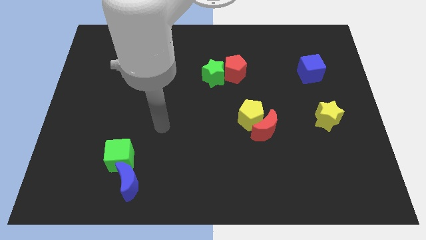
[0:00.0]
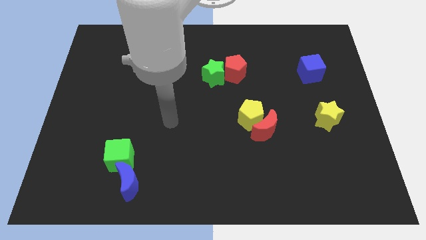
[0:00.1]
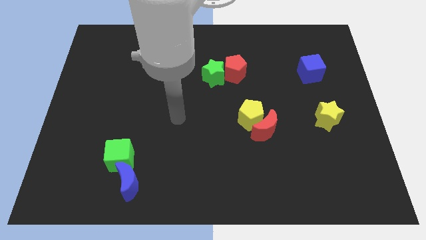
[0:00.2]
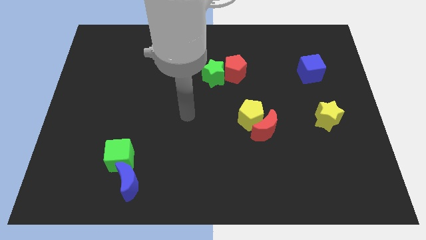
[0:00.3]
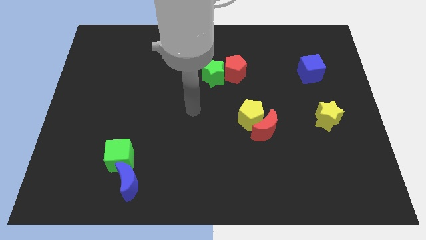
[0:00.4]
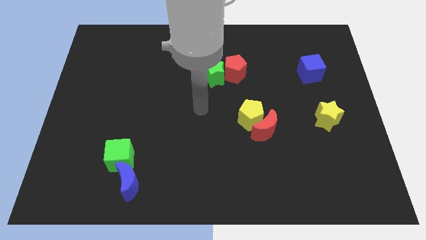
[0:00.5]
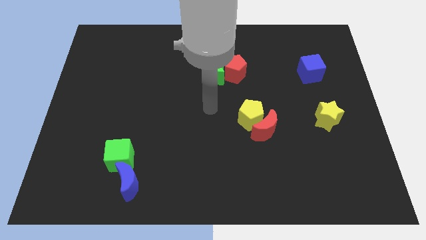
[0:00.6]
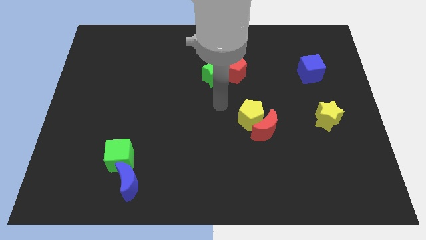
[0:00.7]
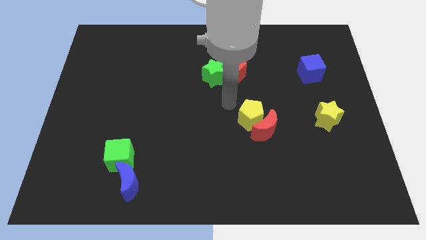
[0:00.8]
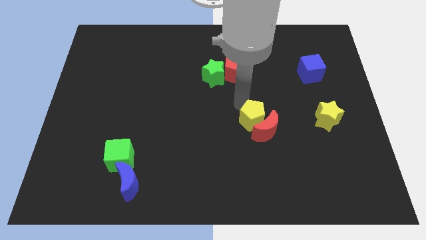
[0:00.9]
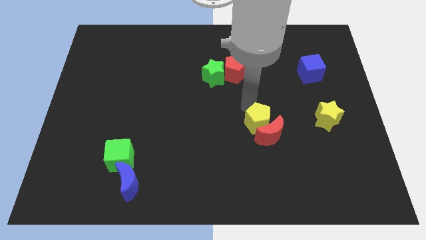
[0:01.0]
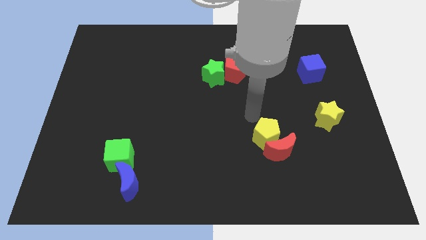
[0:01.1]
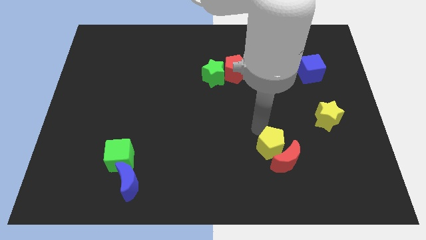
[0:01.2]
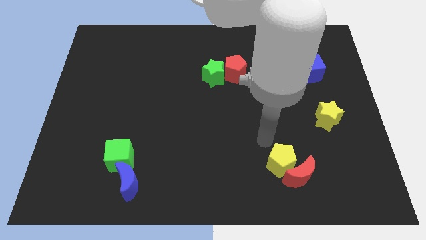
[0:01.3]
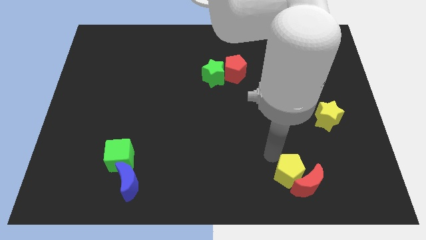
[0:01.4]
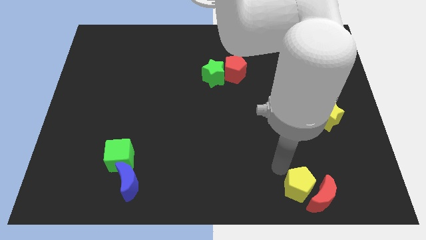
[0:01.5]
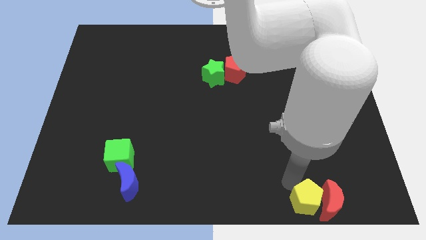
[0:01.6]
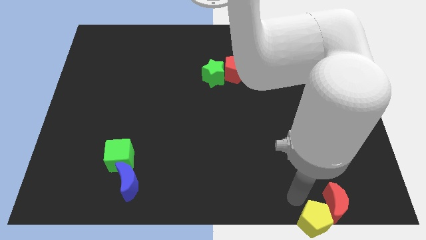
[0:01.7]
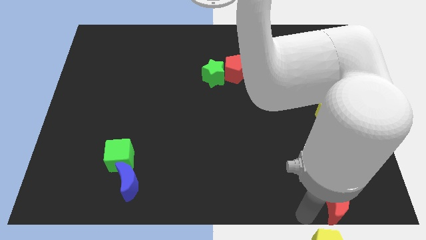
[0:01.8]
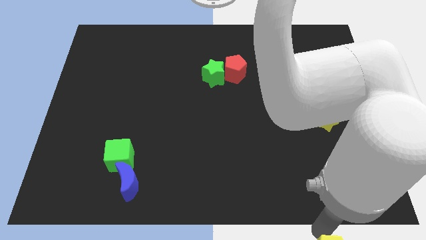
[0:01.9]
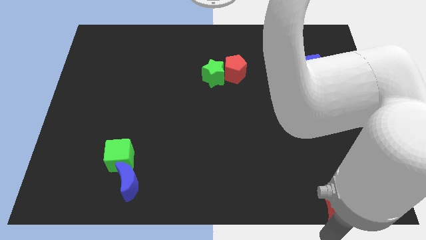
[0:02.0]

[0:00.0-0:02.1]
pull the red moon apart from the yellow pentagon

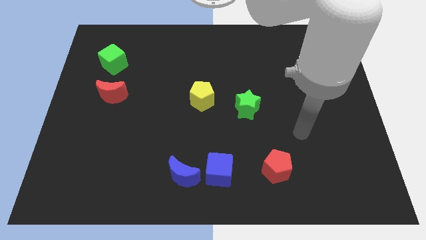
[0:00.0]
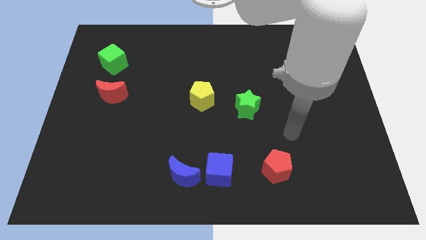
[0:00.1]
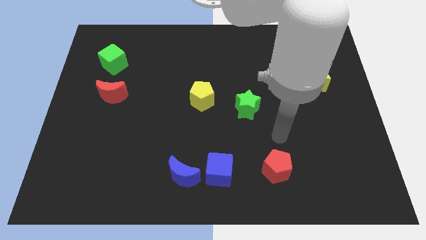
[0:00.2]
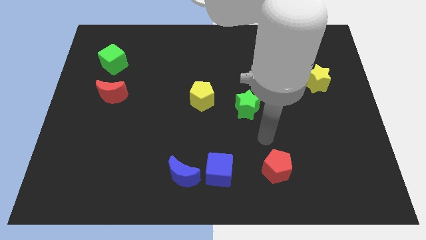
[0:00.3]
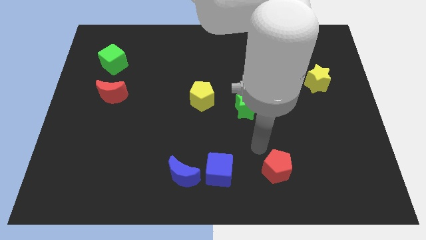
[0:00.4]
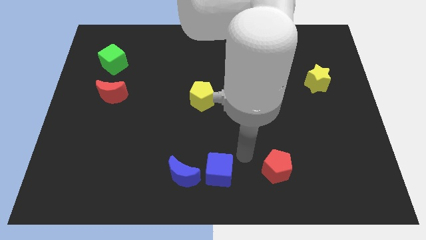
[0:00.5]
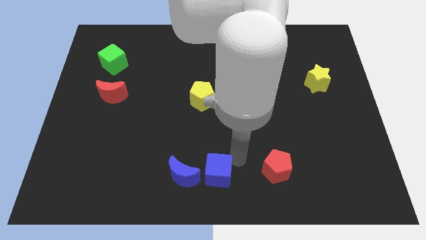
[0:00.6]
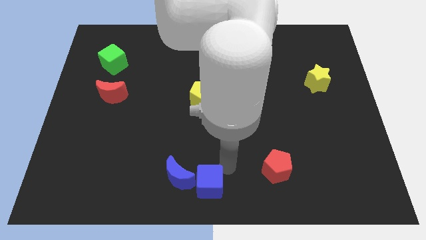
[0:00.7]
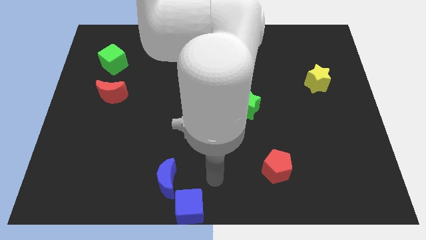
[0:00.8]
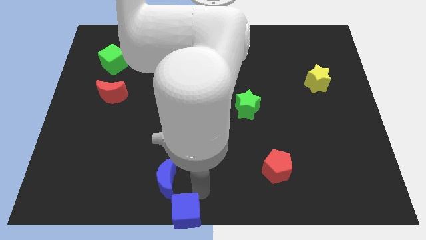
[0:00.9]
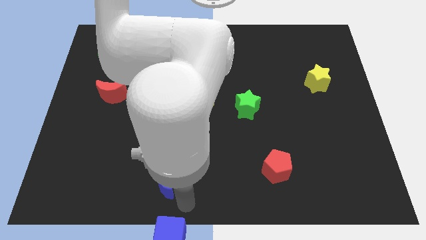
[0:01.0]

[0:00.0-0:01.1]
separate the blue moon from the blue cube

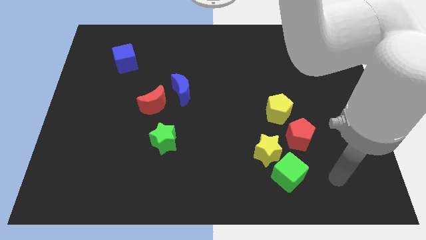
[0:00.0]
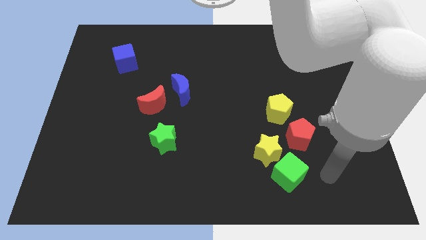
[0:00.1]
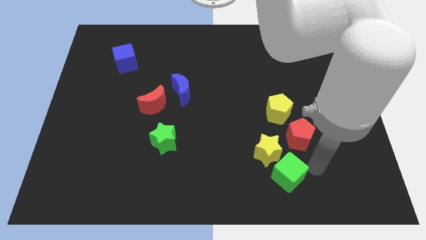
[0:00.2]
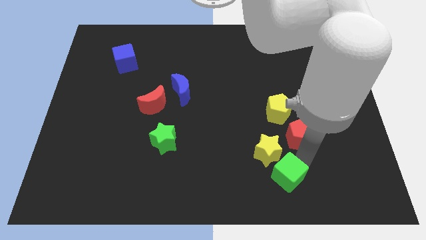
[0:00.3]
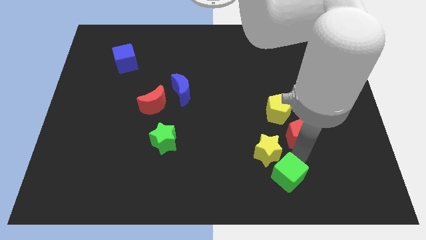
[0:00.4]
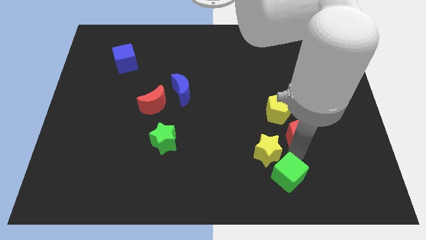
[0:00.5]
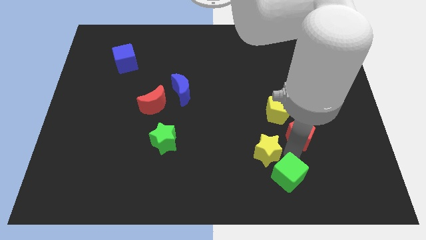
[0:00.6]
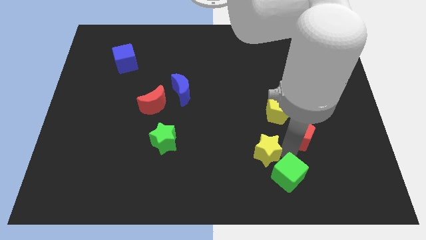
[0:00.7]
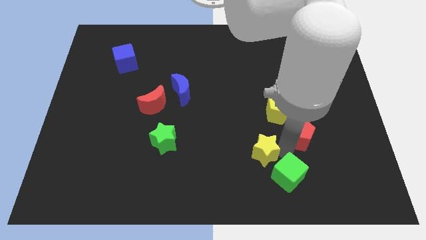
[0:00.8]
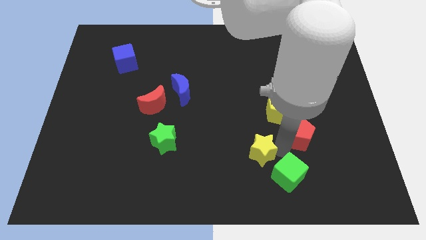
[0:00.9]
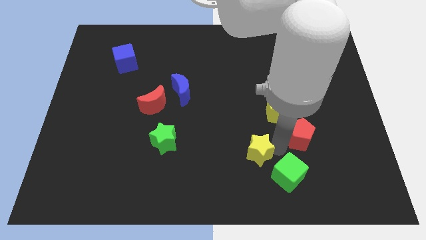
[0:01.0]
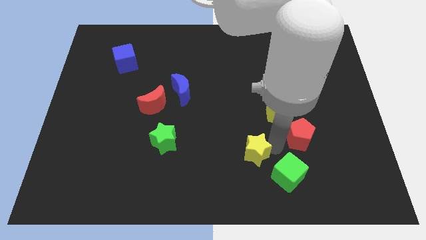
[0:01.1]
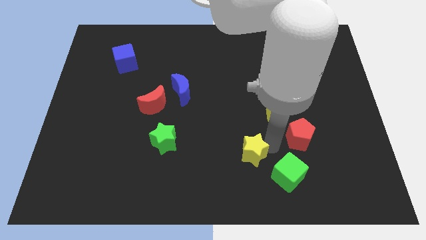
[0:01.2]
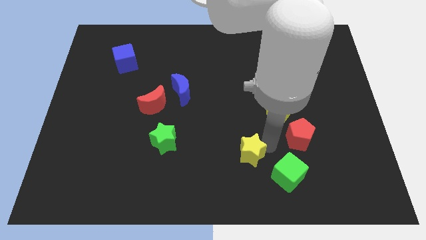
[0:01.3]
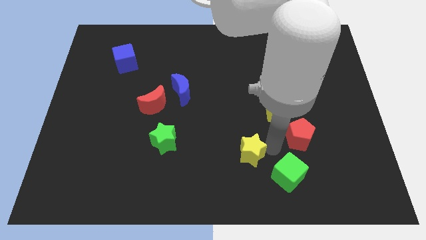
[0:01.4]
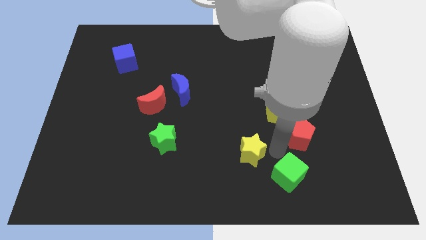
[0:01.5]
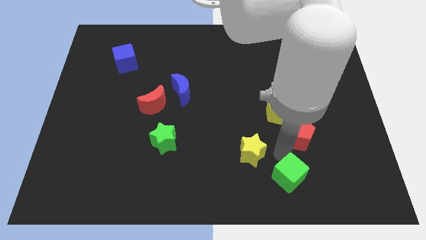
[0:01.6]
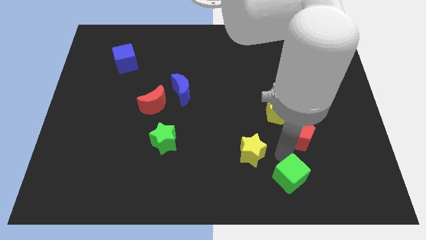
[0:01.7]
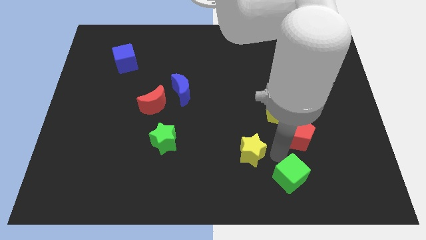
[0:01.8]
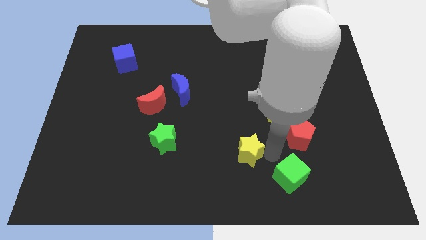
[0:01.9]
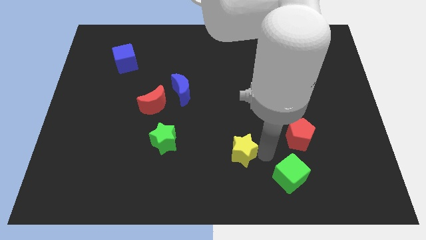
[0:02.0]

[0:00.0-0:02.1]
move the yellow star away from the green cube and red pentagon

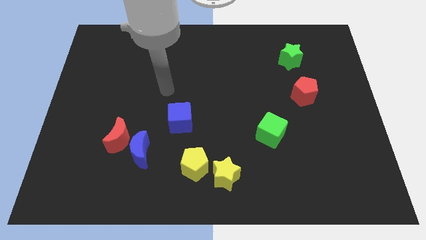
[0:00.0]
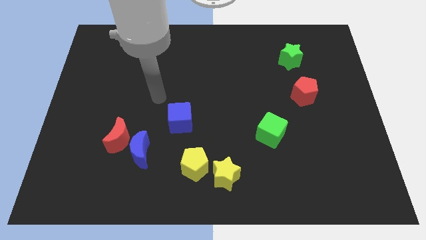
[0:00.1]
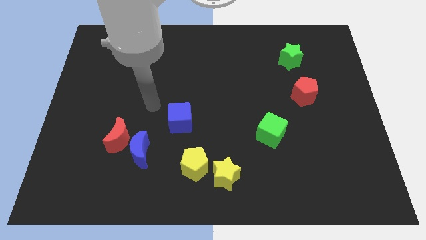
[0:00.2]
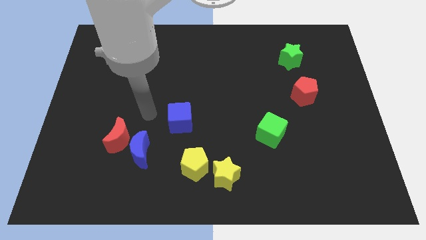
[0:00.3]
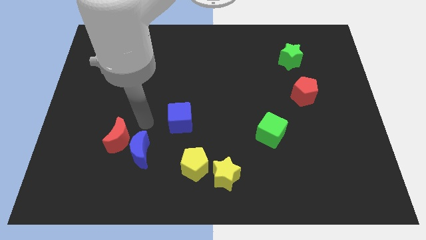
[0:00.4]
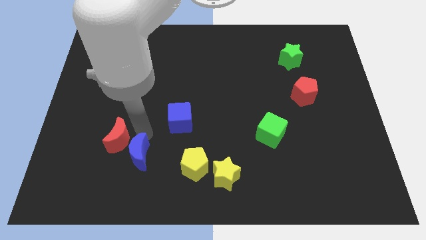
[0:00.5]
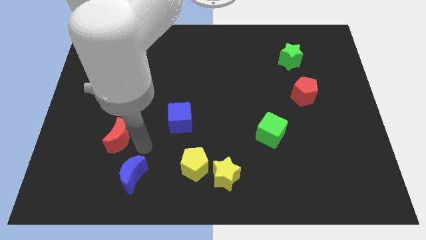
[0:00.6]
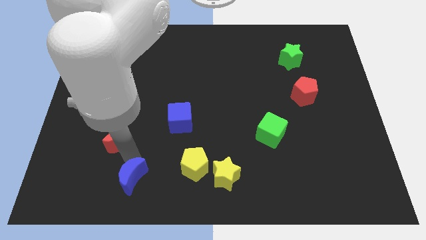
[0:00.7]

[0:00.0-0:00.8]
move the red moon away from the blue moon

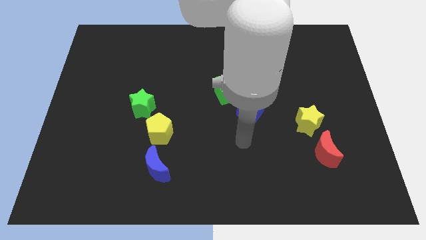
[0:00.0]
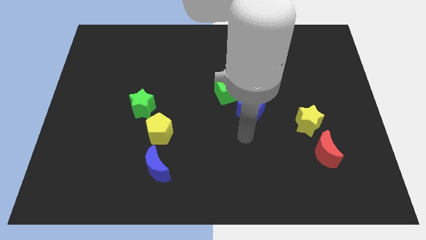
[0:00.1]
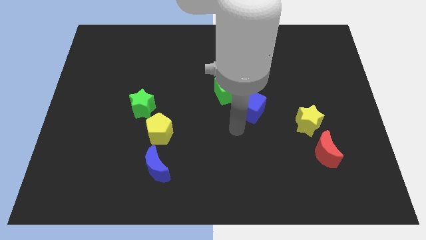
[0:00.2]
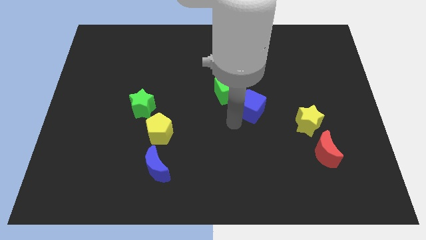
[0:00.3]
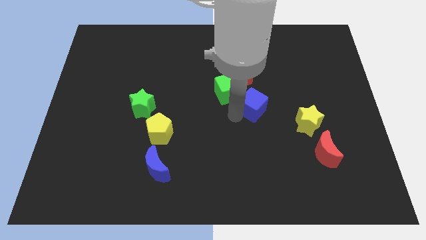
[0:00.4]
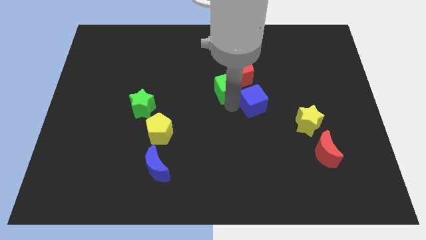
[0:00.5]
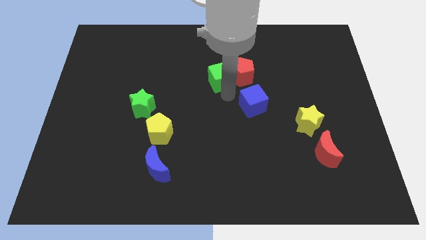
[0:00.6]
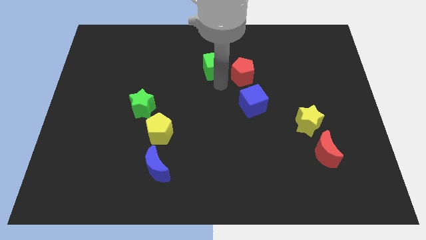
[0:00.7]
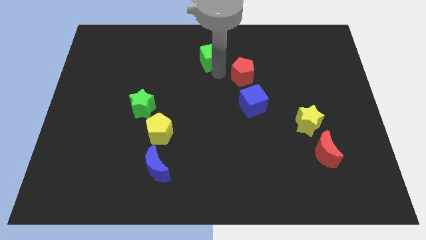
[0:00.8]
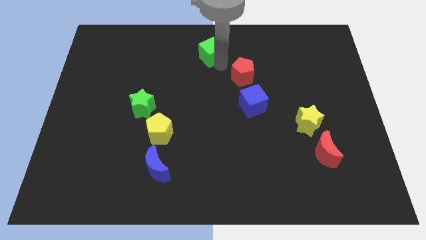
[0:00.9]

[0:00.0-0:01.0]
move the red pentagon away from the green cube

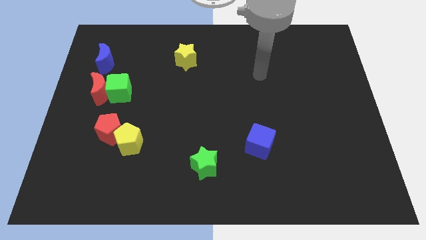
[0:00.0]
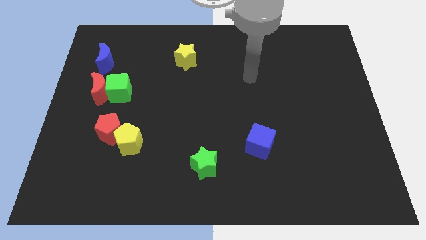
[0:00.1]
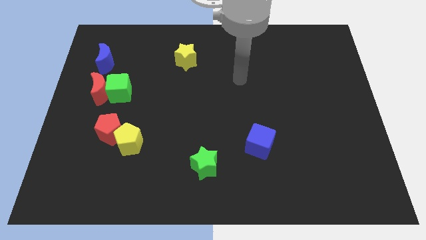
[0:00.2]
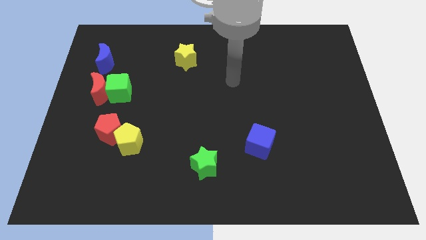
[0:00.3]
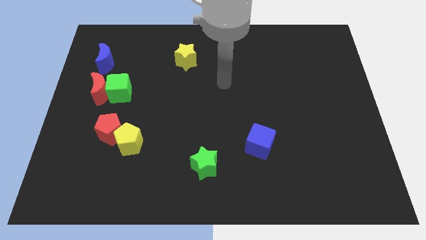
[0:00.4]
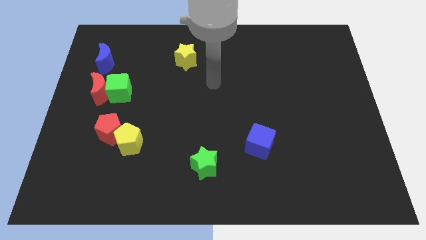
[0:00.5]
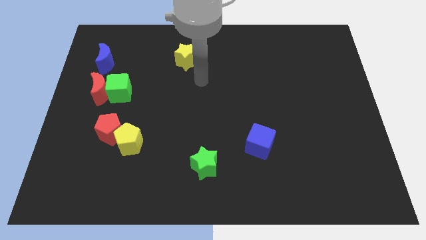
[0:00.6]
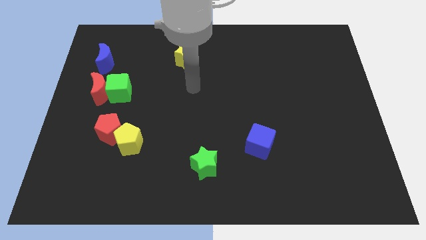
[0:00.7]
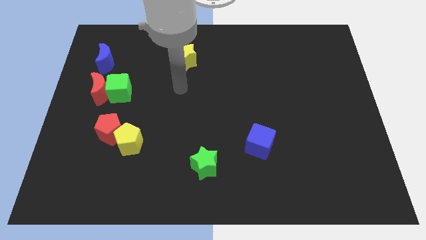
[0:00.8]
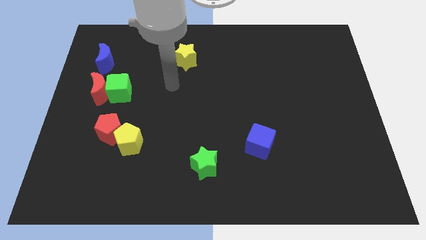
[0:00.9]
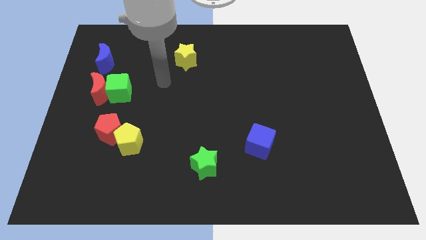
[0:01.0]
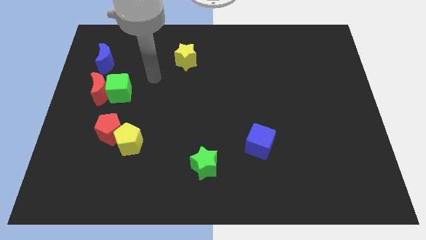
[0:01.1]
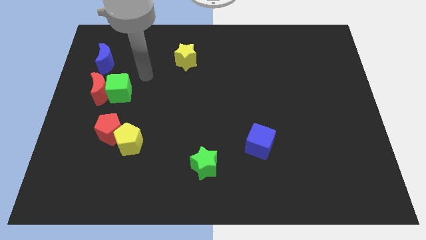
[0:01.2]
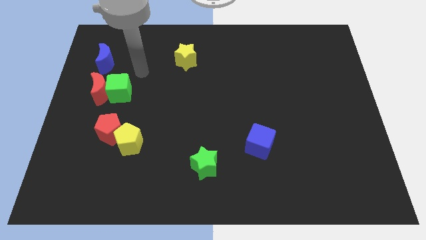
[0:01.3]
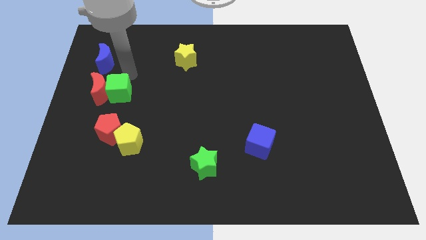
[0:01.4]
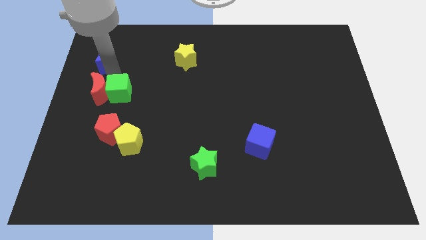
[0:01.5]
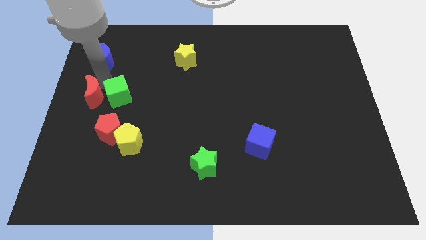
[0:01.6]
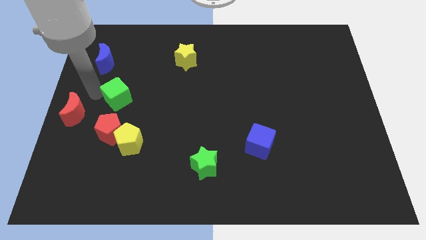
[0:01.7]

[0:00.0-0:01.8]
move the green cube away from the red moon

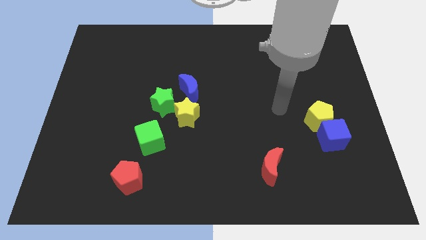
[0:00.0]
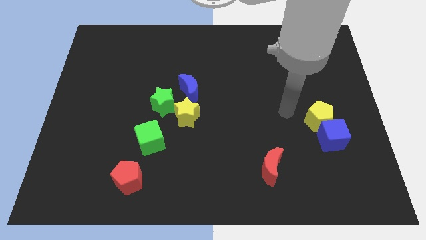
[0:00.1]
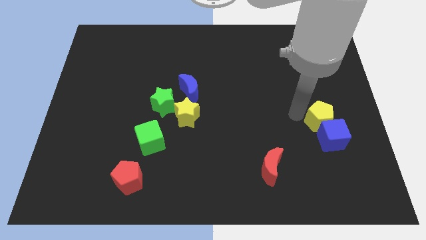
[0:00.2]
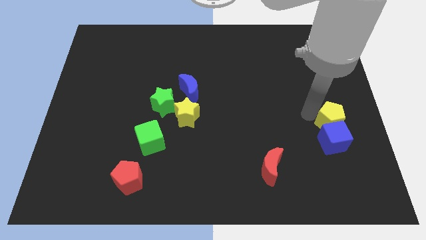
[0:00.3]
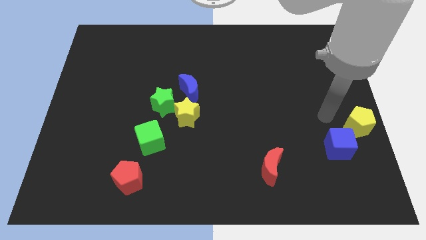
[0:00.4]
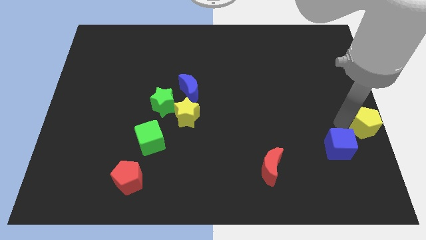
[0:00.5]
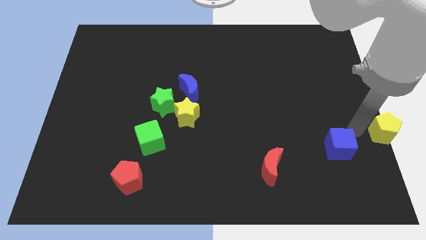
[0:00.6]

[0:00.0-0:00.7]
move the blue cube away from the yellow pentagon
